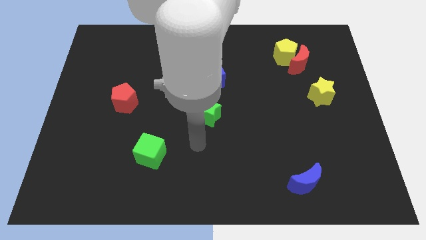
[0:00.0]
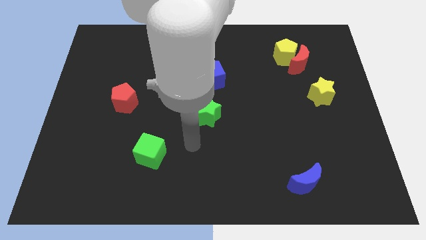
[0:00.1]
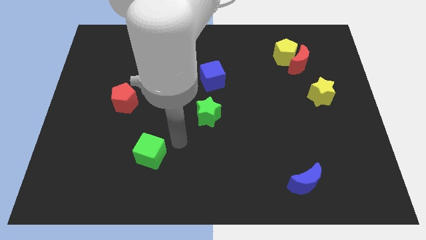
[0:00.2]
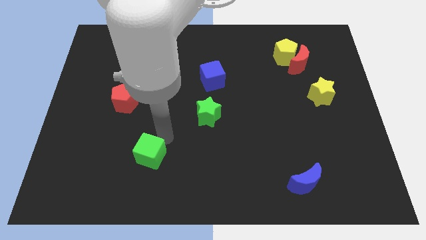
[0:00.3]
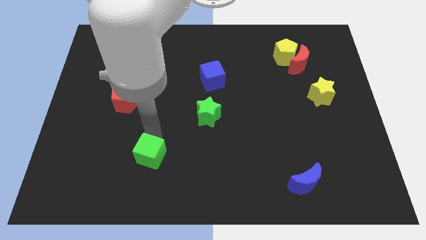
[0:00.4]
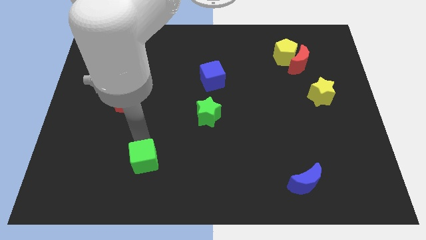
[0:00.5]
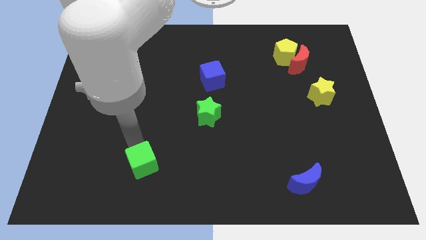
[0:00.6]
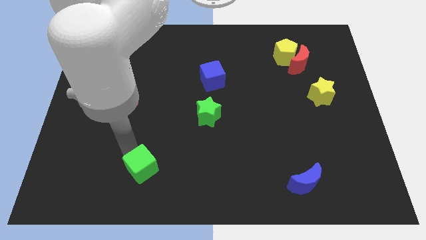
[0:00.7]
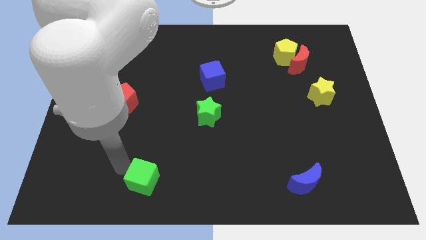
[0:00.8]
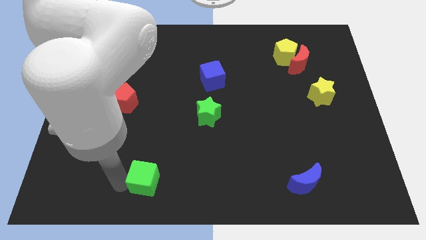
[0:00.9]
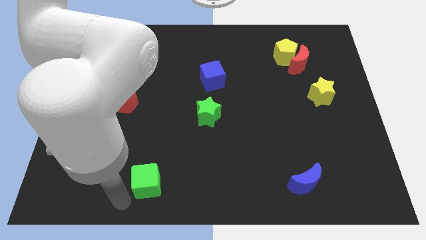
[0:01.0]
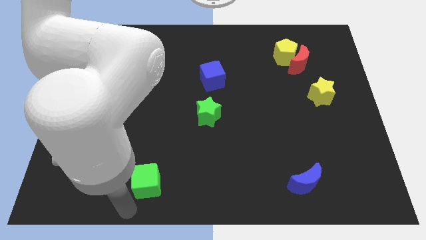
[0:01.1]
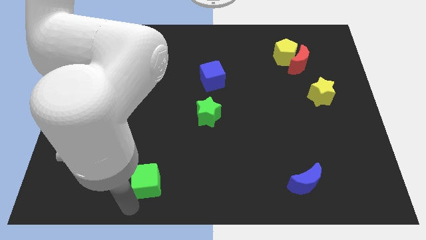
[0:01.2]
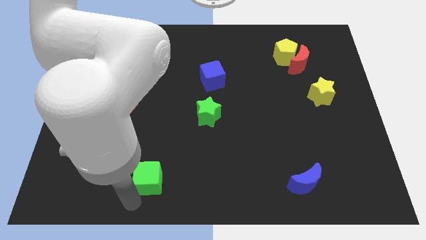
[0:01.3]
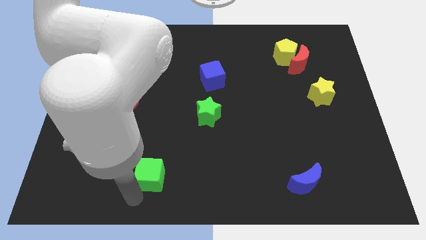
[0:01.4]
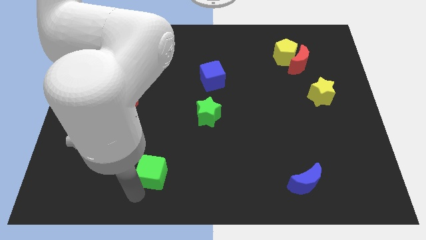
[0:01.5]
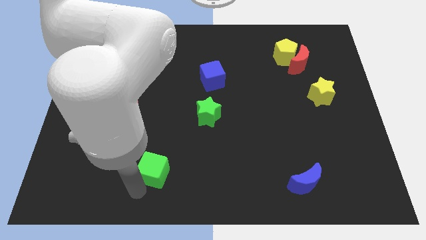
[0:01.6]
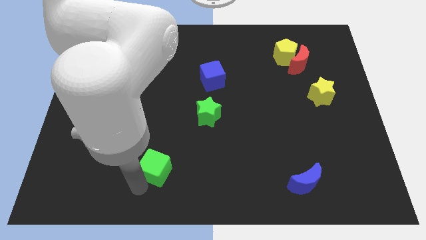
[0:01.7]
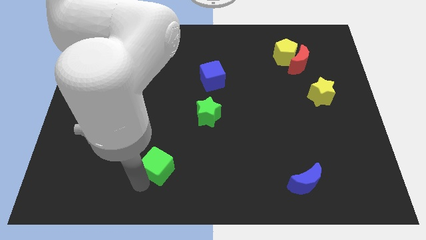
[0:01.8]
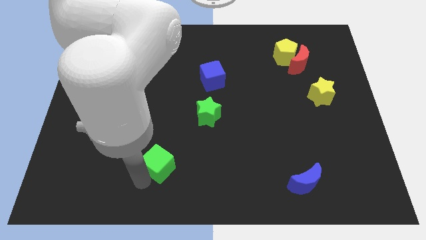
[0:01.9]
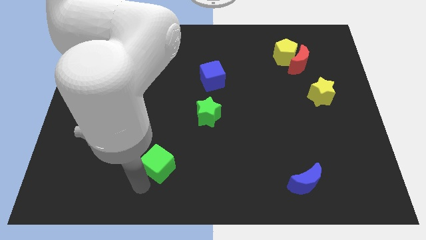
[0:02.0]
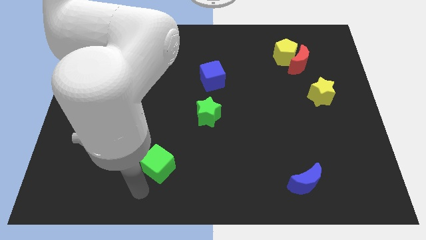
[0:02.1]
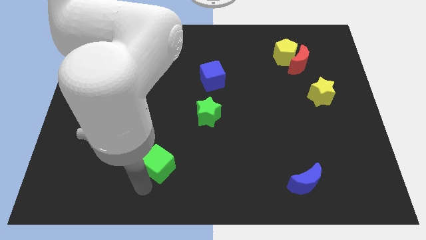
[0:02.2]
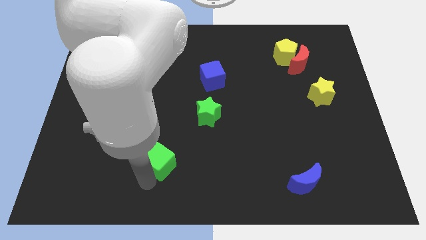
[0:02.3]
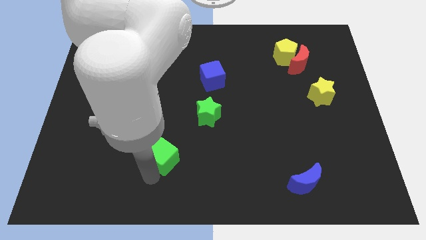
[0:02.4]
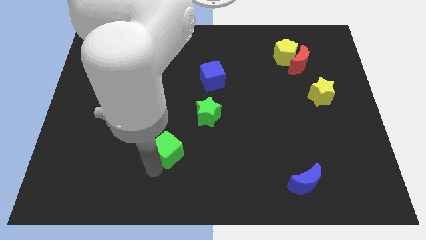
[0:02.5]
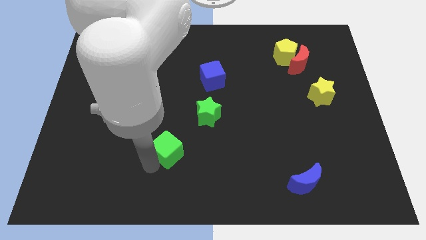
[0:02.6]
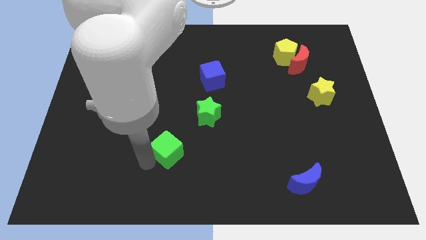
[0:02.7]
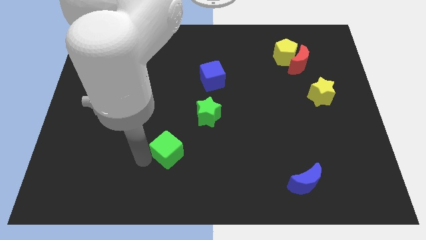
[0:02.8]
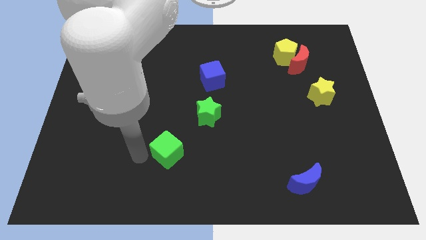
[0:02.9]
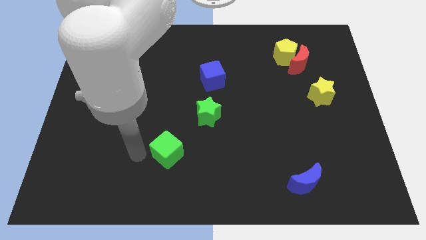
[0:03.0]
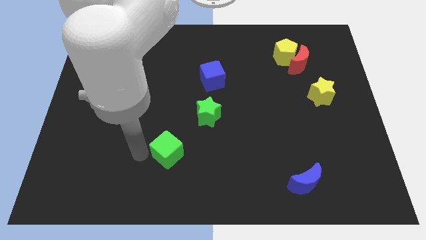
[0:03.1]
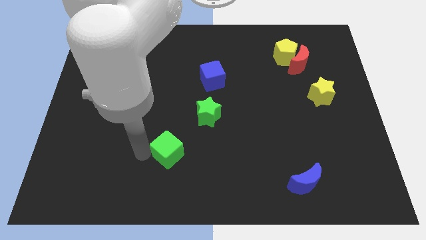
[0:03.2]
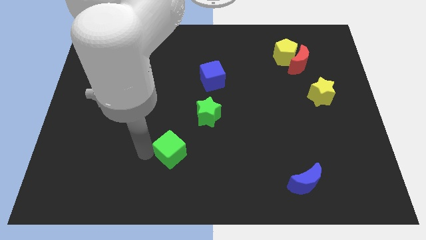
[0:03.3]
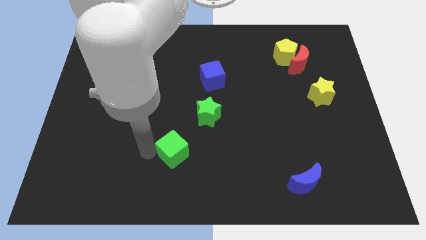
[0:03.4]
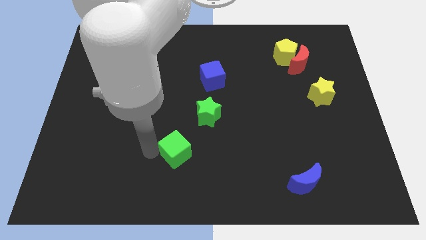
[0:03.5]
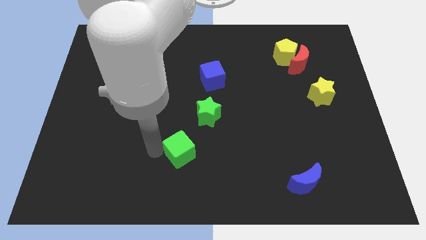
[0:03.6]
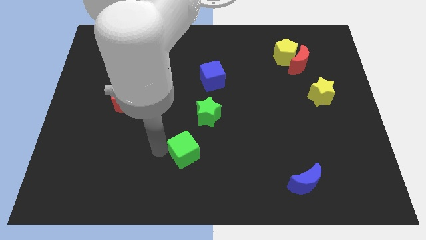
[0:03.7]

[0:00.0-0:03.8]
move the green cube somewhat to the right

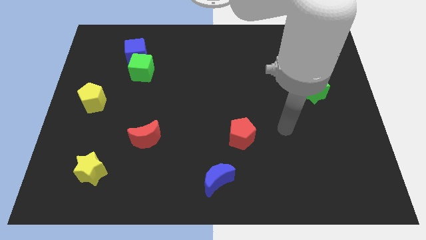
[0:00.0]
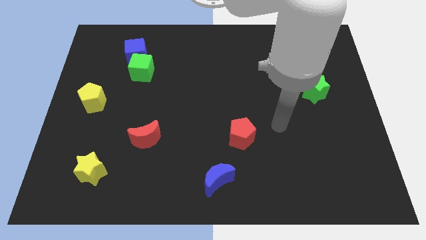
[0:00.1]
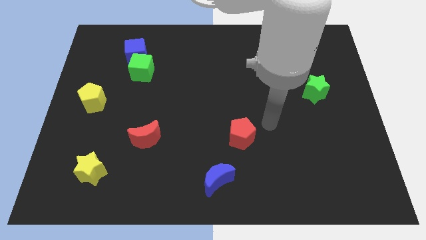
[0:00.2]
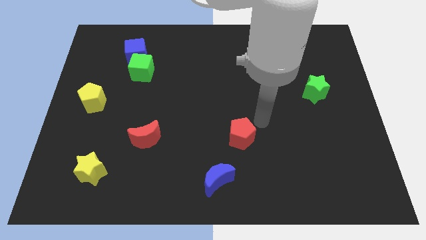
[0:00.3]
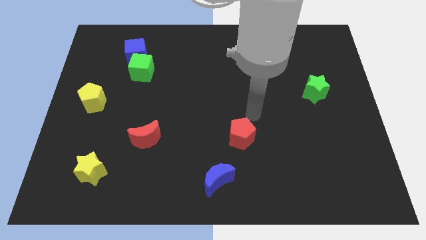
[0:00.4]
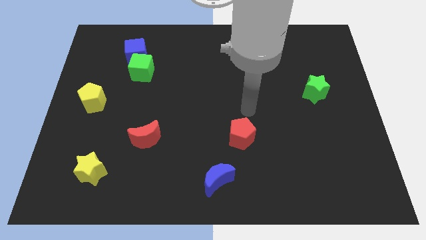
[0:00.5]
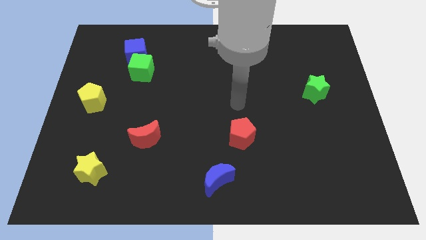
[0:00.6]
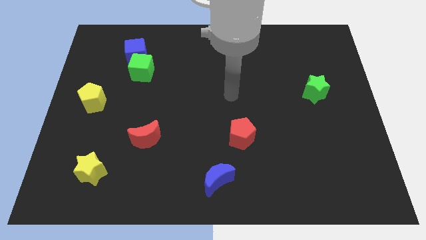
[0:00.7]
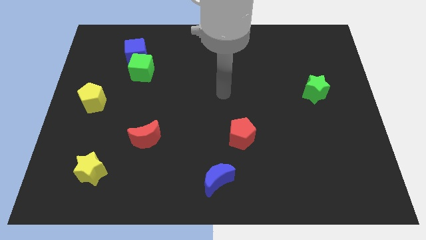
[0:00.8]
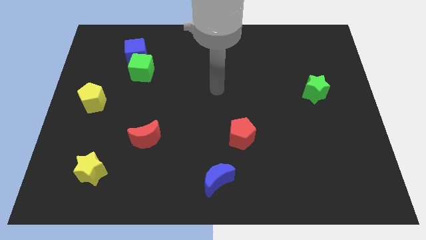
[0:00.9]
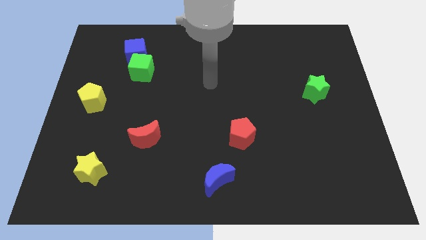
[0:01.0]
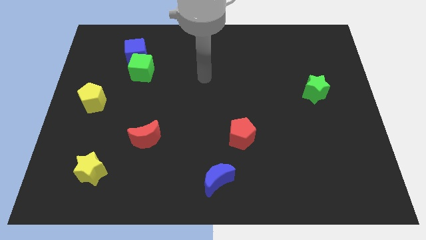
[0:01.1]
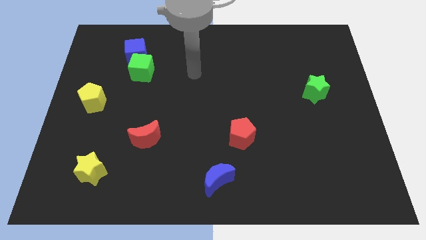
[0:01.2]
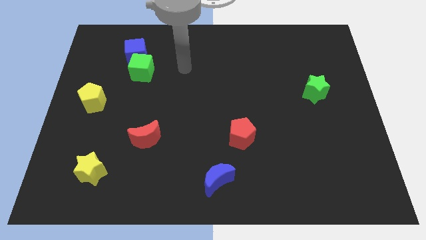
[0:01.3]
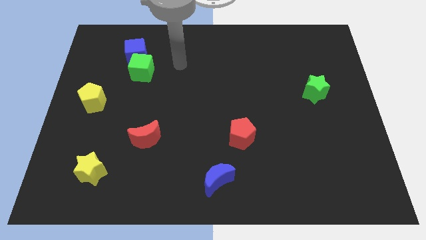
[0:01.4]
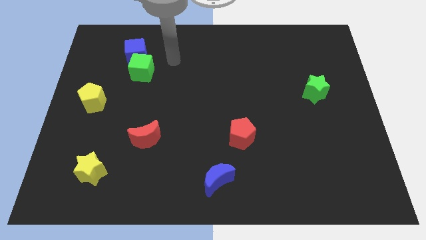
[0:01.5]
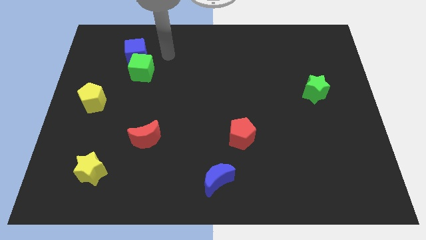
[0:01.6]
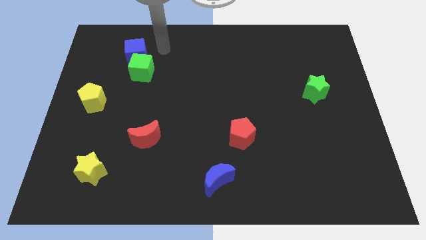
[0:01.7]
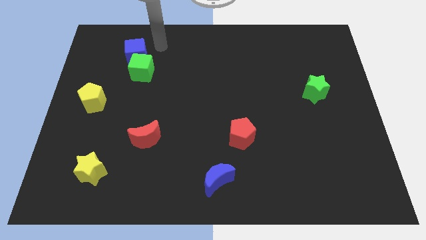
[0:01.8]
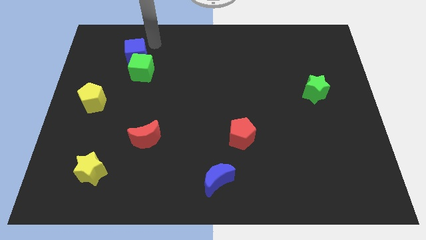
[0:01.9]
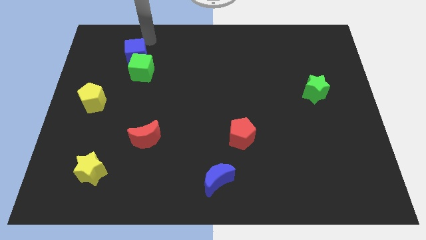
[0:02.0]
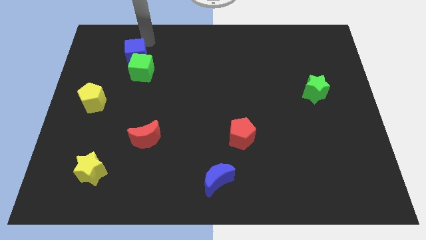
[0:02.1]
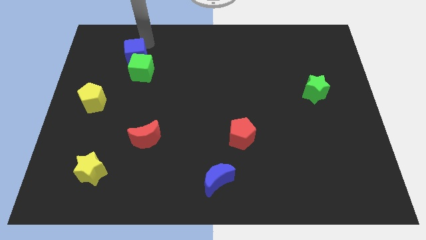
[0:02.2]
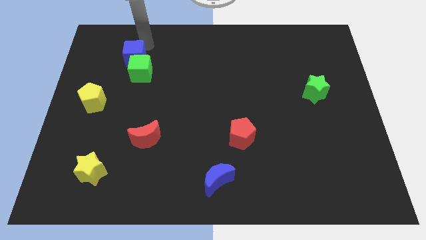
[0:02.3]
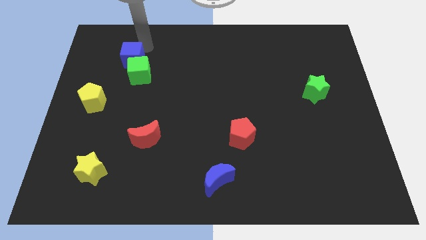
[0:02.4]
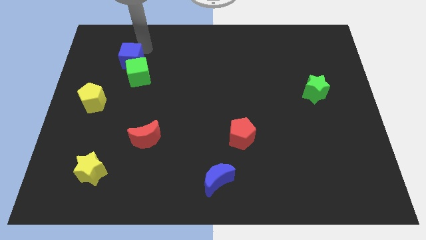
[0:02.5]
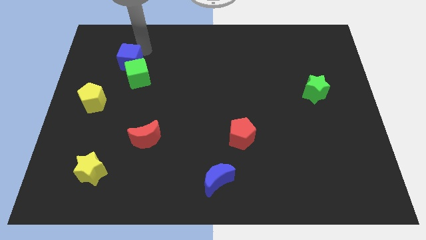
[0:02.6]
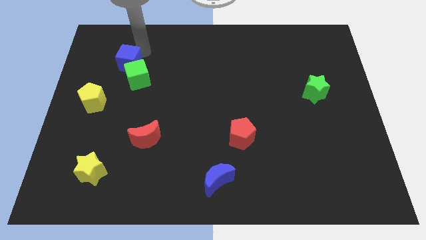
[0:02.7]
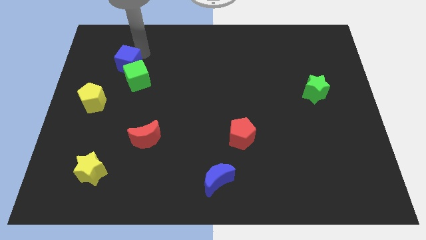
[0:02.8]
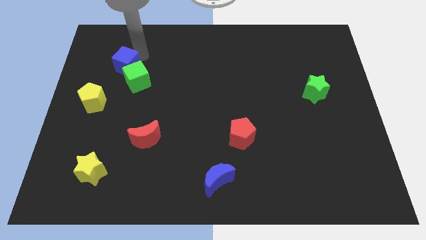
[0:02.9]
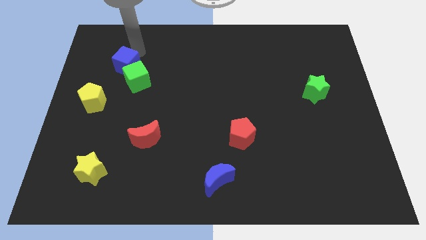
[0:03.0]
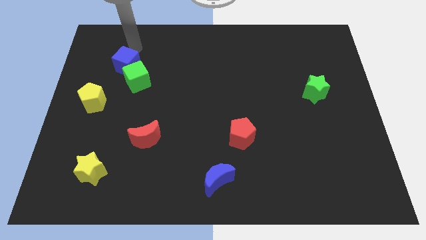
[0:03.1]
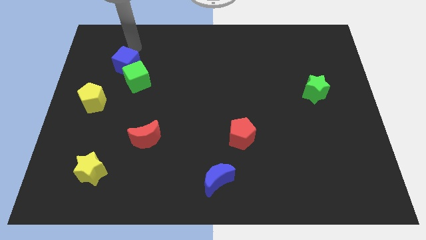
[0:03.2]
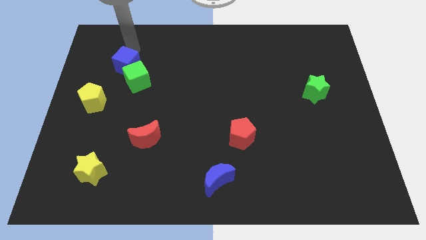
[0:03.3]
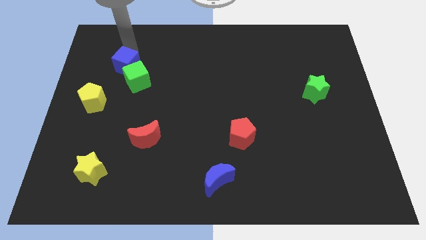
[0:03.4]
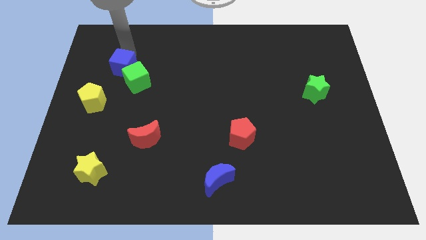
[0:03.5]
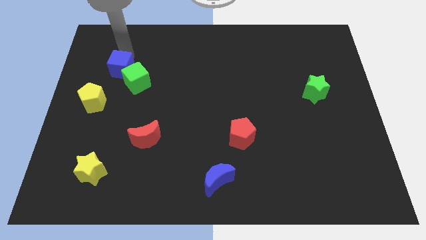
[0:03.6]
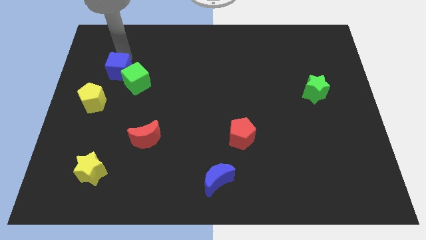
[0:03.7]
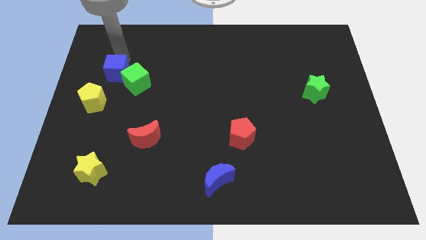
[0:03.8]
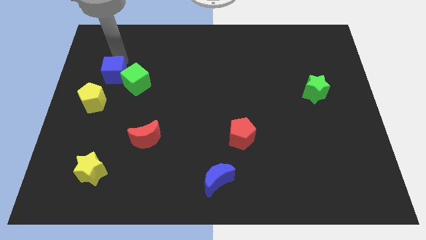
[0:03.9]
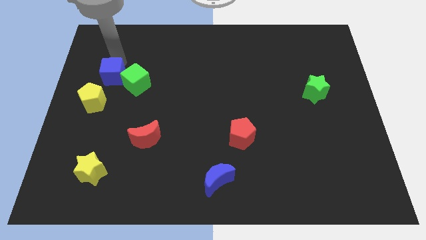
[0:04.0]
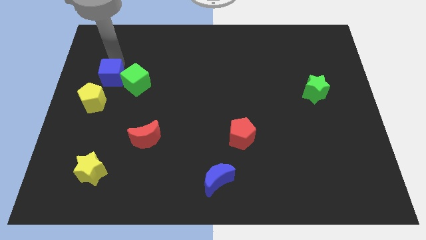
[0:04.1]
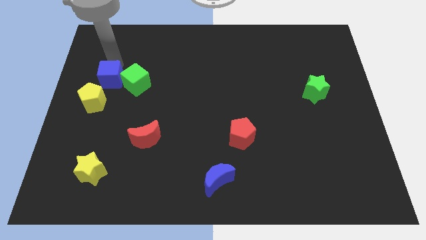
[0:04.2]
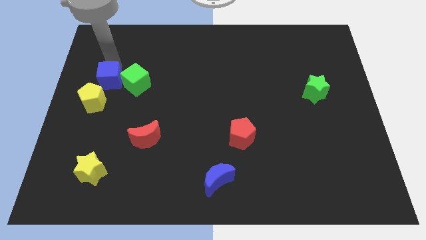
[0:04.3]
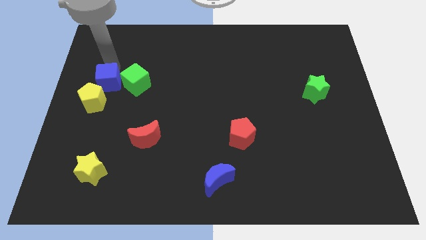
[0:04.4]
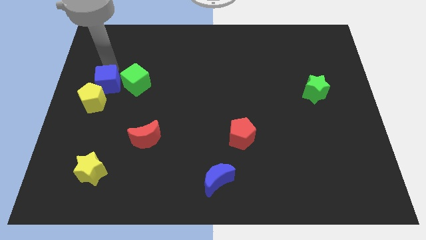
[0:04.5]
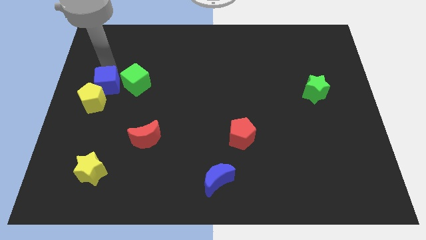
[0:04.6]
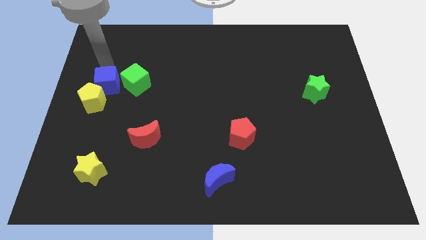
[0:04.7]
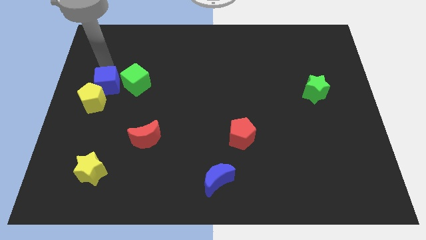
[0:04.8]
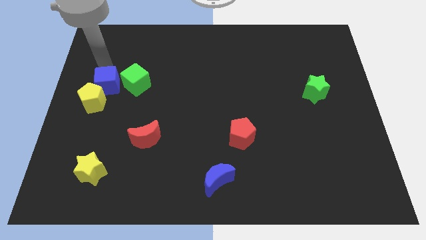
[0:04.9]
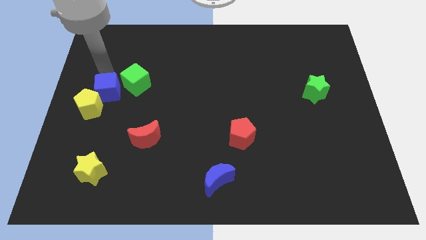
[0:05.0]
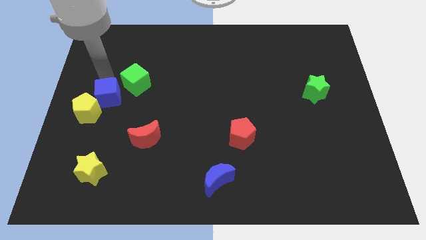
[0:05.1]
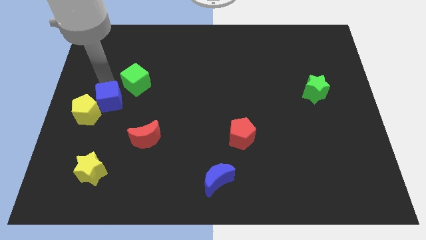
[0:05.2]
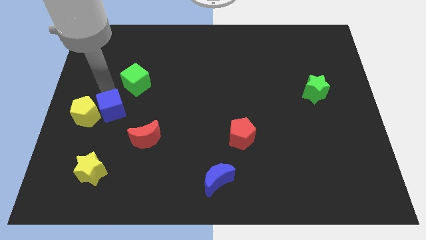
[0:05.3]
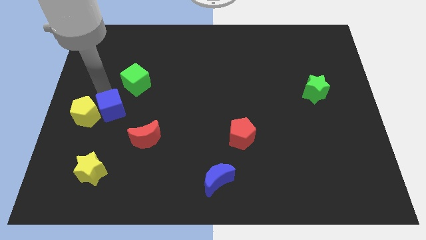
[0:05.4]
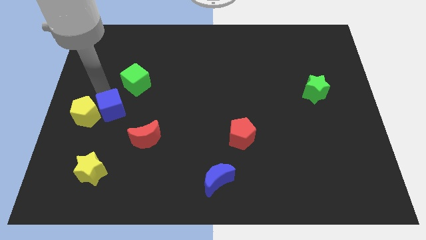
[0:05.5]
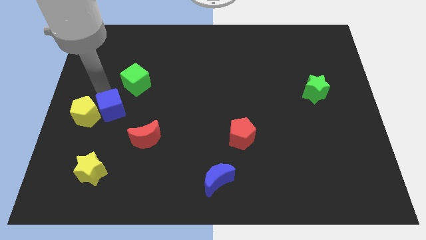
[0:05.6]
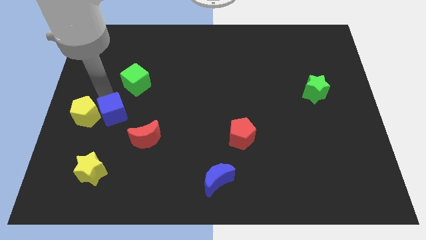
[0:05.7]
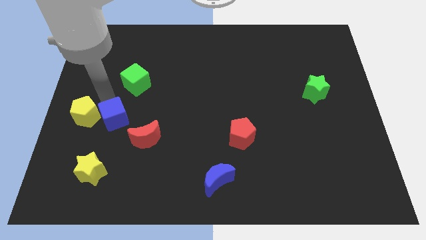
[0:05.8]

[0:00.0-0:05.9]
push the blue cube downwards
